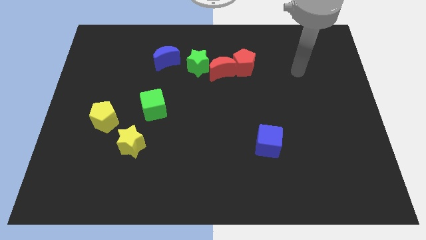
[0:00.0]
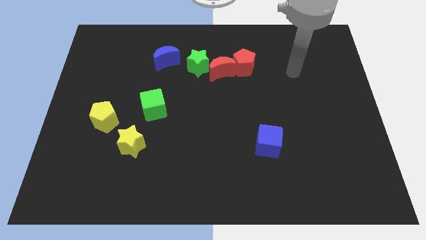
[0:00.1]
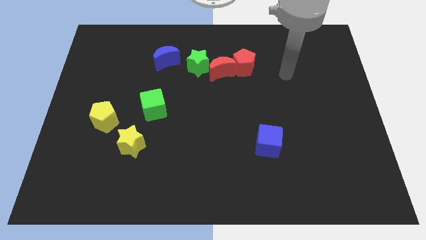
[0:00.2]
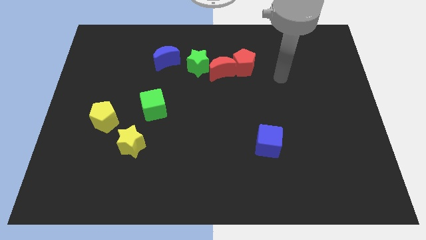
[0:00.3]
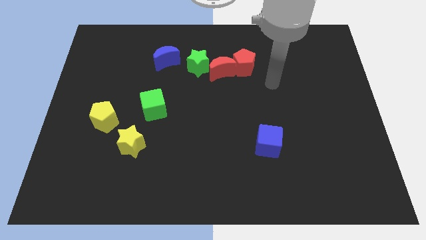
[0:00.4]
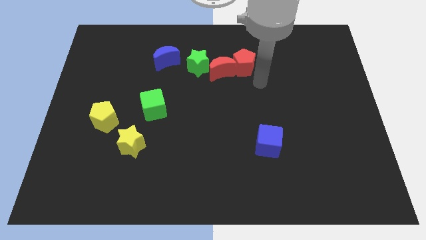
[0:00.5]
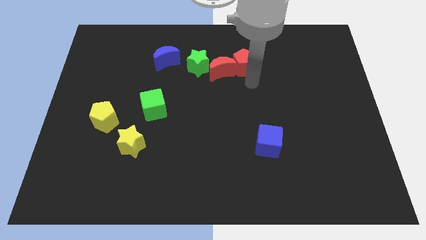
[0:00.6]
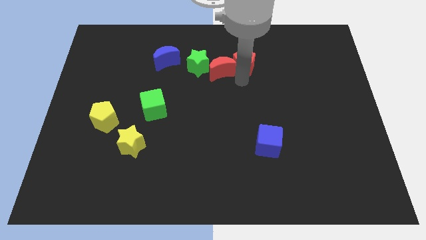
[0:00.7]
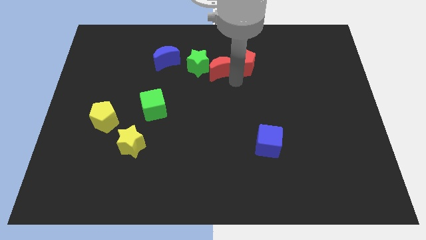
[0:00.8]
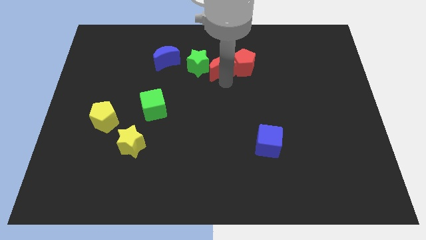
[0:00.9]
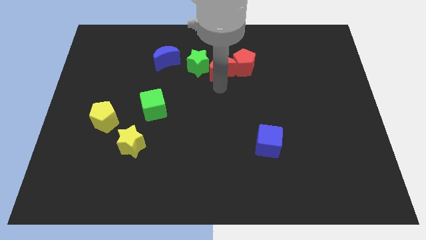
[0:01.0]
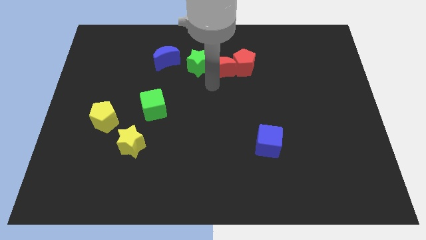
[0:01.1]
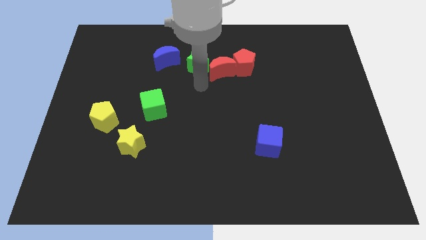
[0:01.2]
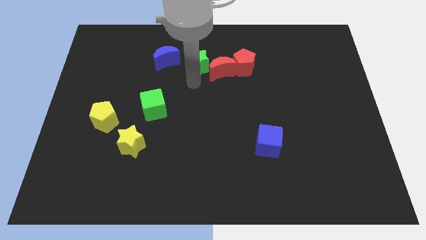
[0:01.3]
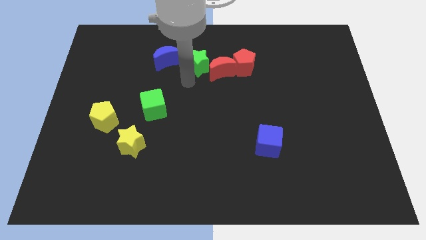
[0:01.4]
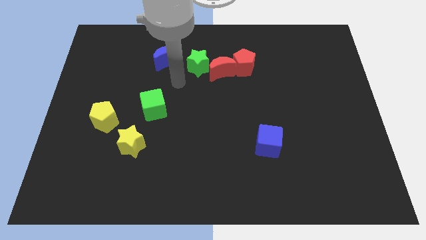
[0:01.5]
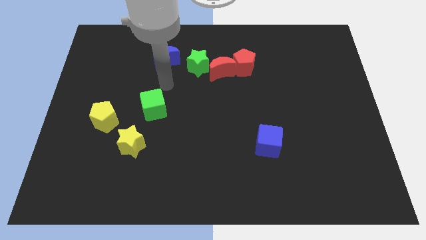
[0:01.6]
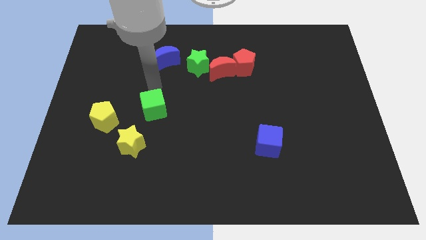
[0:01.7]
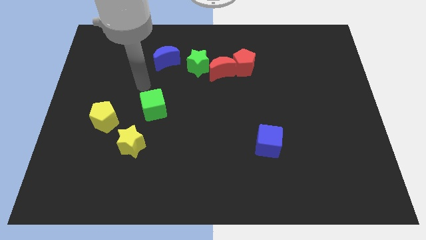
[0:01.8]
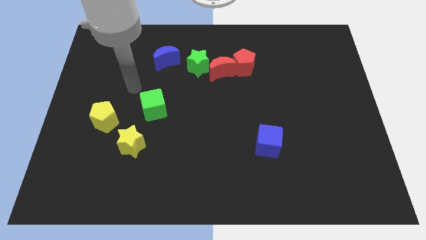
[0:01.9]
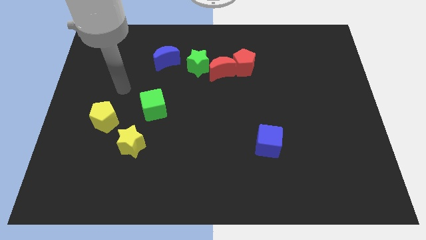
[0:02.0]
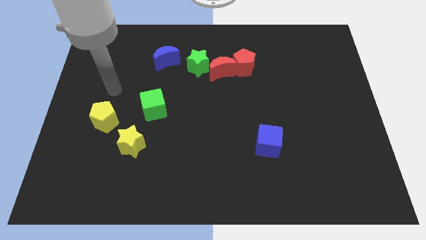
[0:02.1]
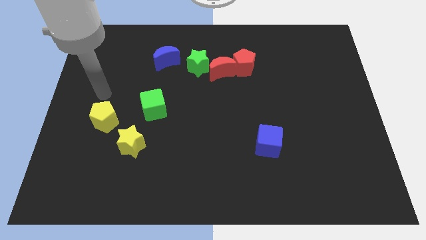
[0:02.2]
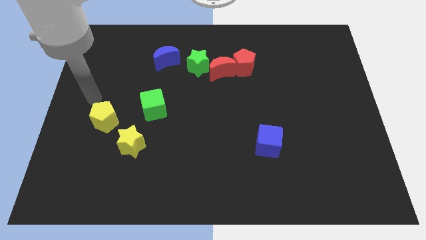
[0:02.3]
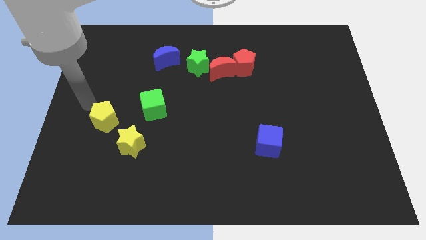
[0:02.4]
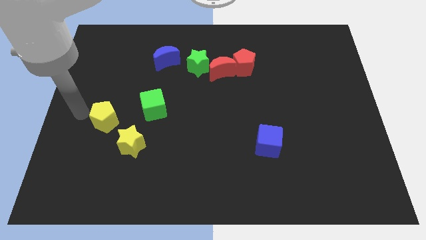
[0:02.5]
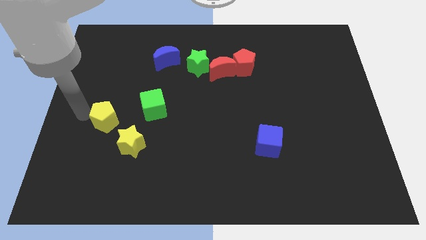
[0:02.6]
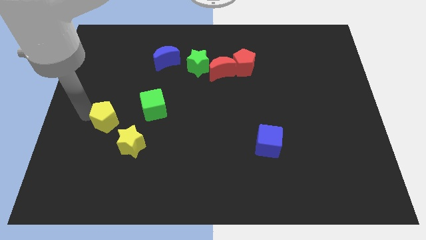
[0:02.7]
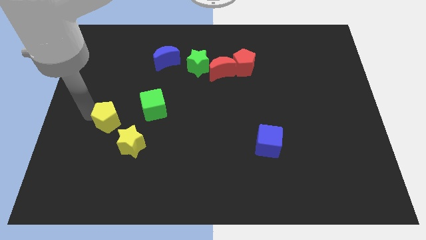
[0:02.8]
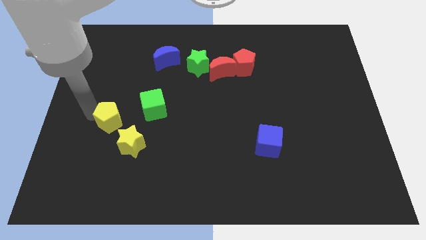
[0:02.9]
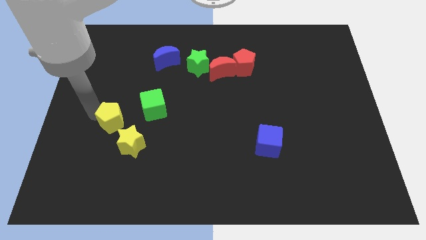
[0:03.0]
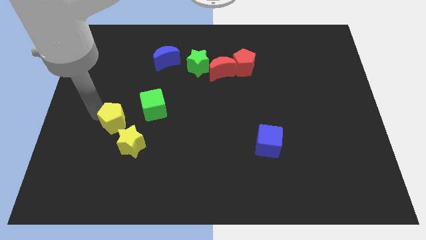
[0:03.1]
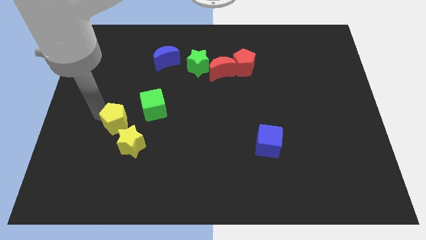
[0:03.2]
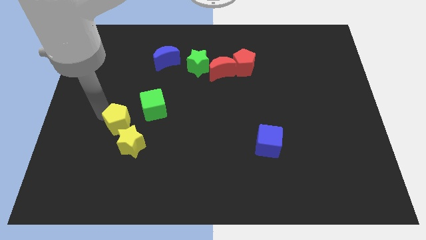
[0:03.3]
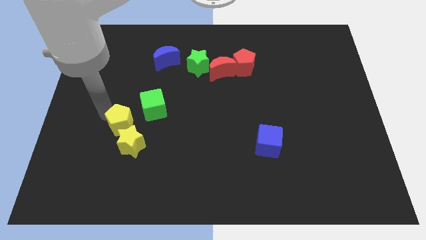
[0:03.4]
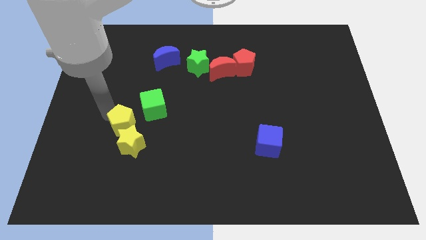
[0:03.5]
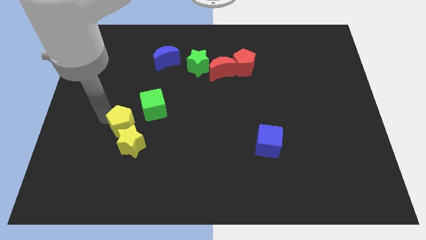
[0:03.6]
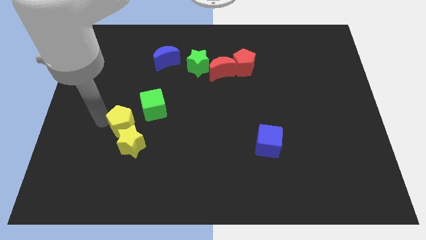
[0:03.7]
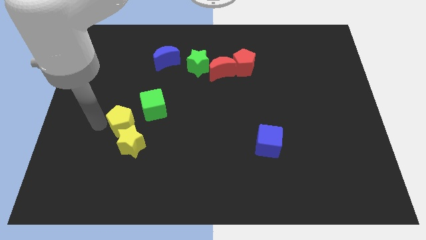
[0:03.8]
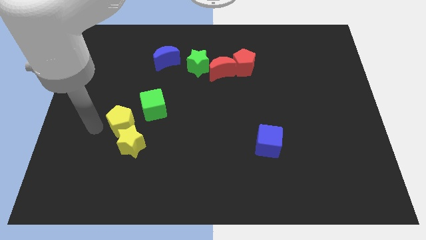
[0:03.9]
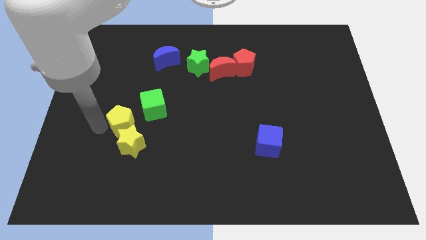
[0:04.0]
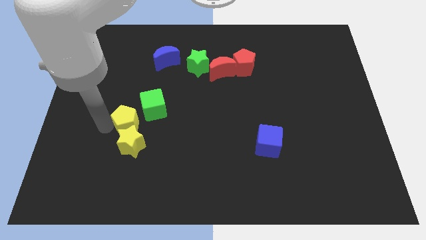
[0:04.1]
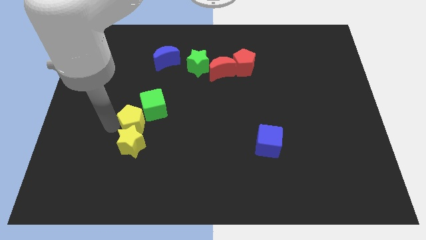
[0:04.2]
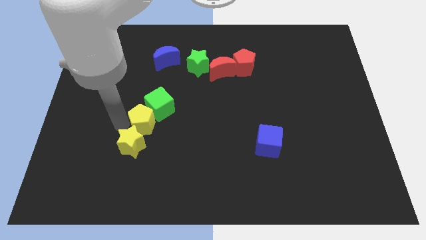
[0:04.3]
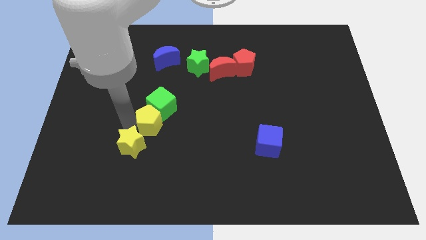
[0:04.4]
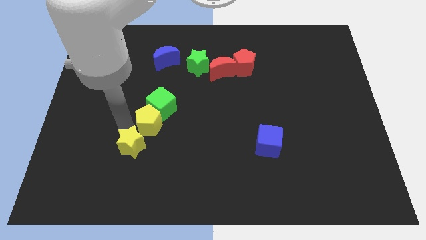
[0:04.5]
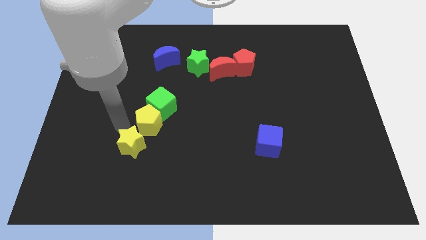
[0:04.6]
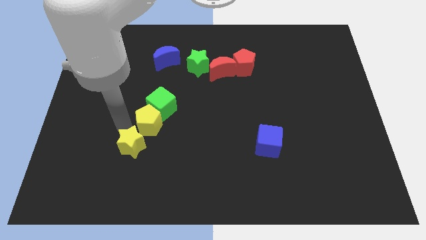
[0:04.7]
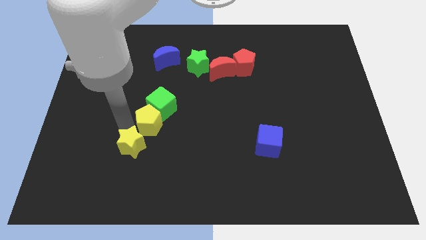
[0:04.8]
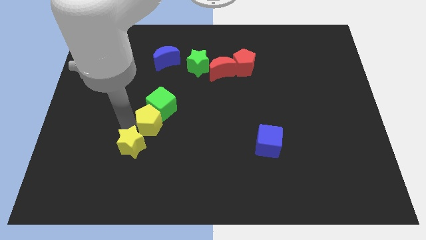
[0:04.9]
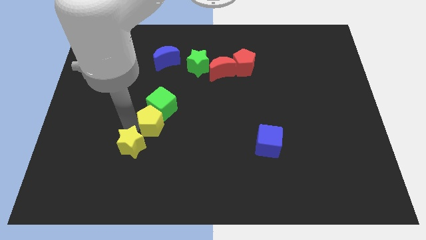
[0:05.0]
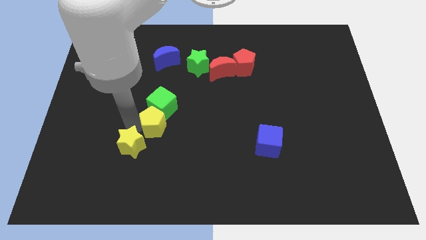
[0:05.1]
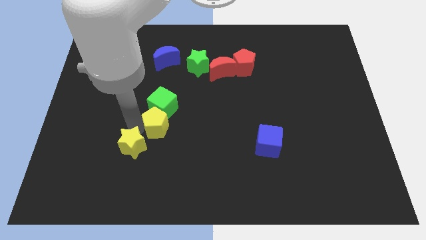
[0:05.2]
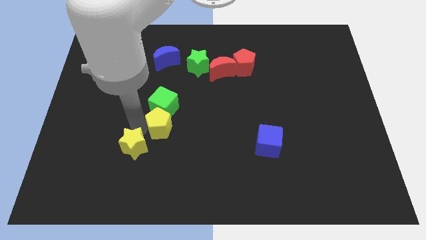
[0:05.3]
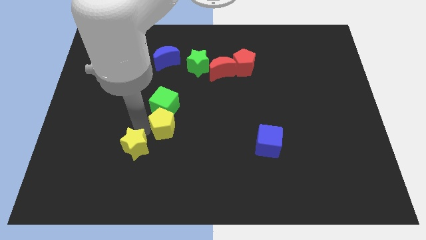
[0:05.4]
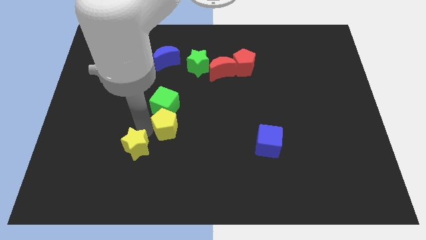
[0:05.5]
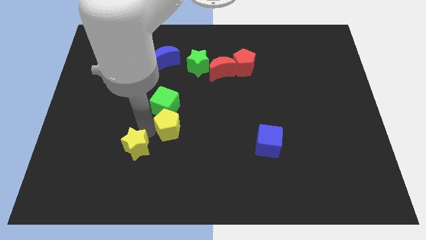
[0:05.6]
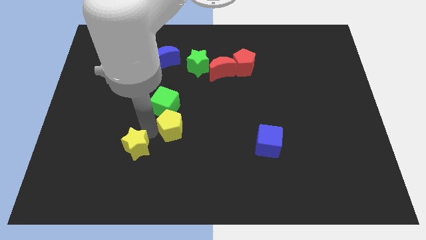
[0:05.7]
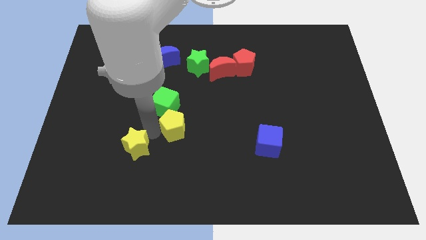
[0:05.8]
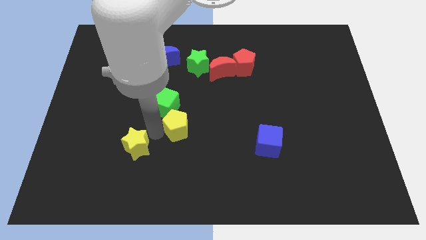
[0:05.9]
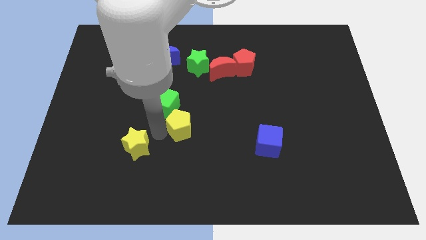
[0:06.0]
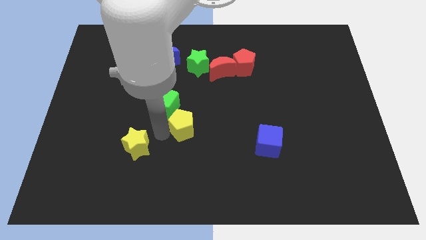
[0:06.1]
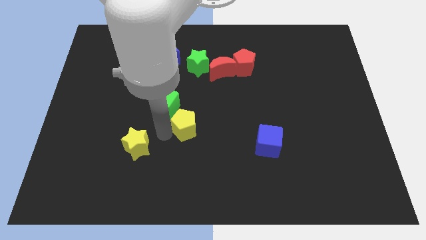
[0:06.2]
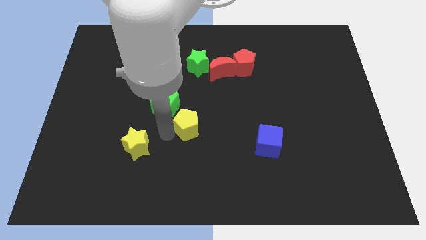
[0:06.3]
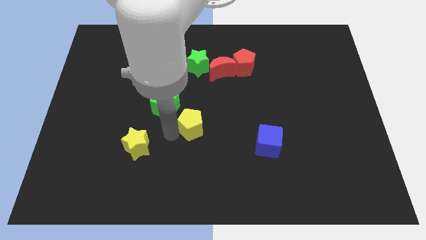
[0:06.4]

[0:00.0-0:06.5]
push the yellow pentagon to the right

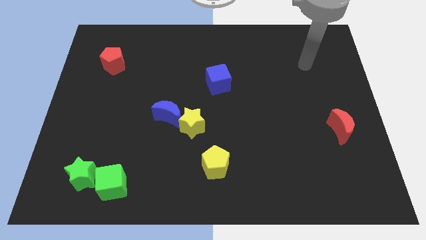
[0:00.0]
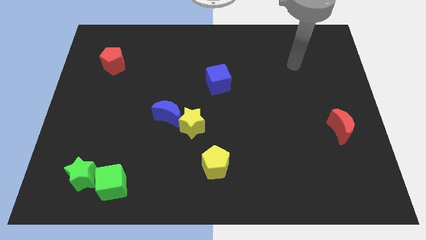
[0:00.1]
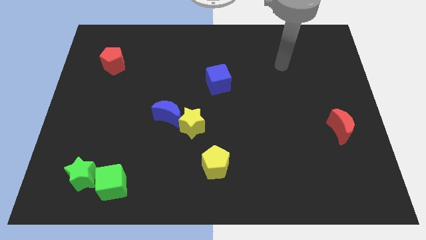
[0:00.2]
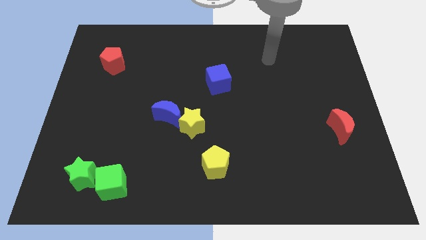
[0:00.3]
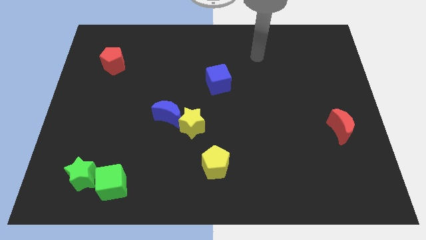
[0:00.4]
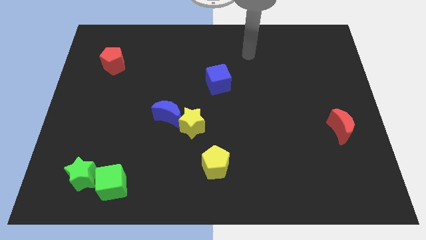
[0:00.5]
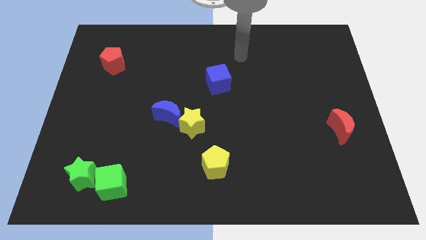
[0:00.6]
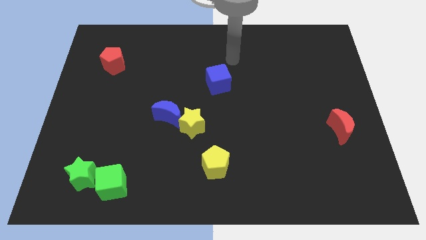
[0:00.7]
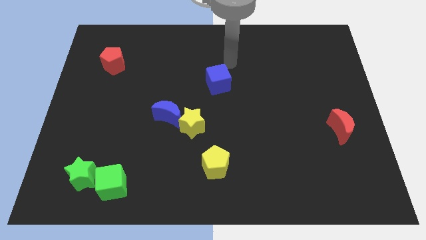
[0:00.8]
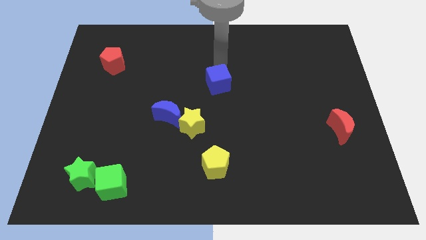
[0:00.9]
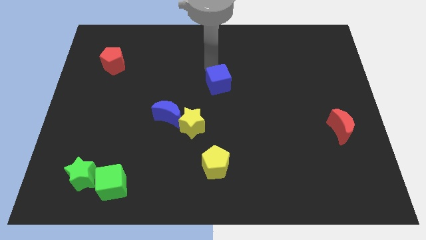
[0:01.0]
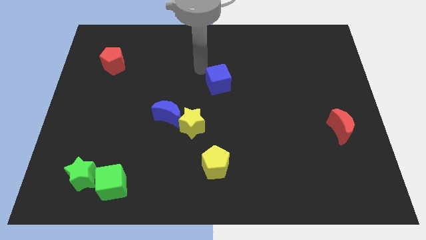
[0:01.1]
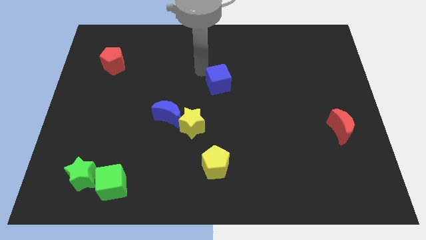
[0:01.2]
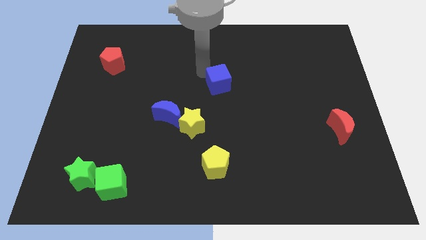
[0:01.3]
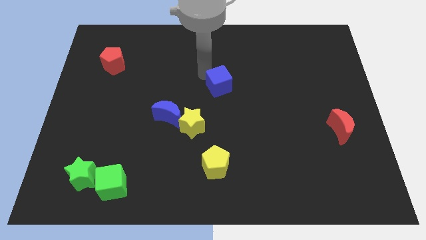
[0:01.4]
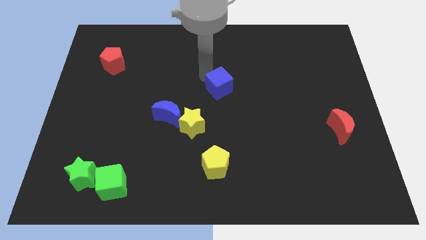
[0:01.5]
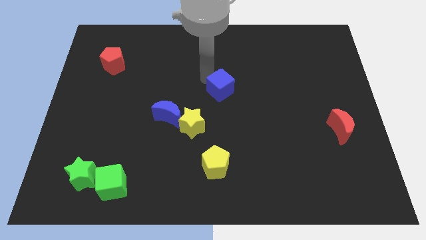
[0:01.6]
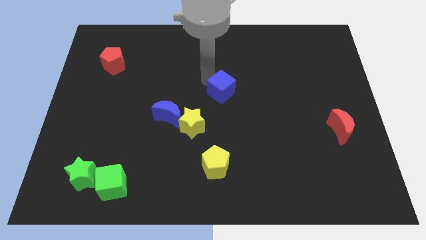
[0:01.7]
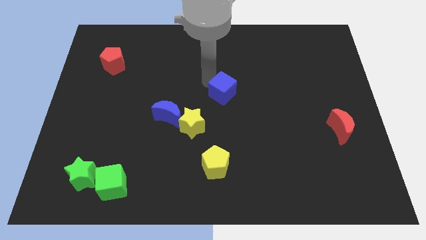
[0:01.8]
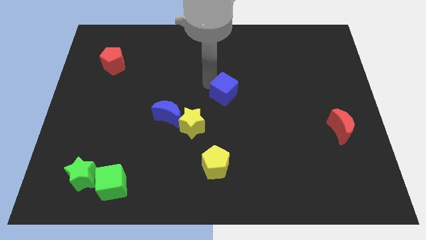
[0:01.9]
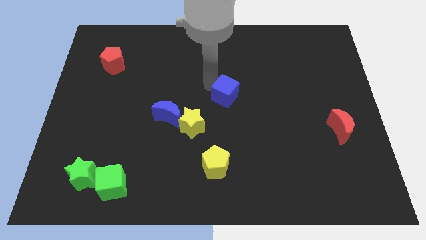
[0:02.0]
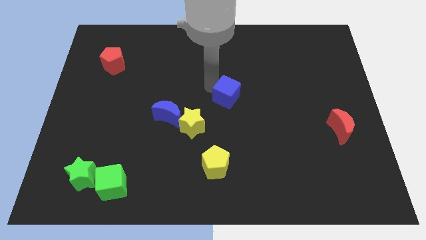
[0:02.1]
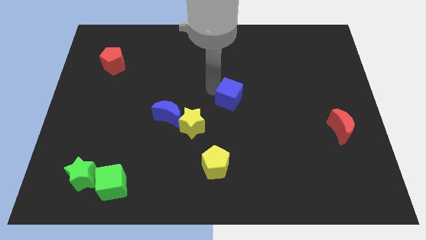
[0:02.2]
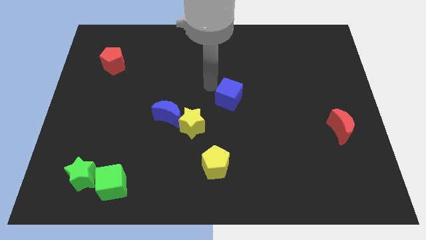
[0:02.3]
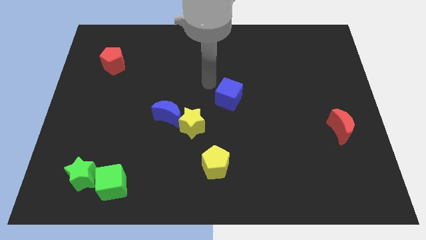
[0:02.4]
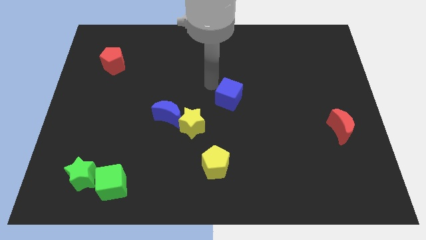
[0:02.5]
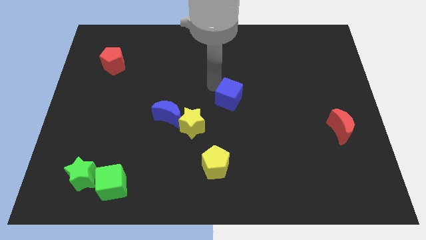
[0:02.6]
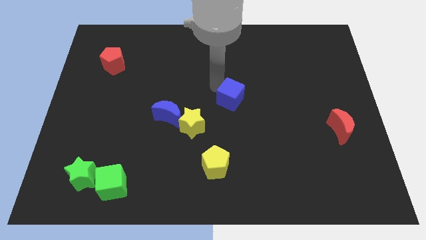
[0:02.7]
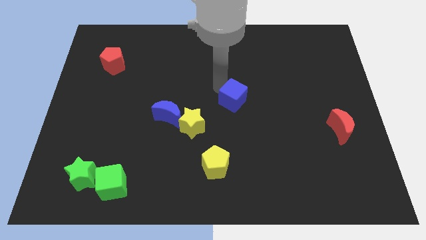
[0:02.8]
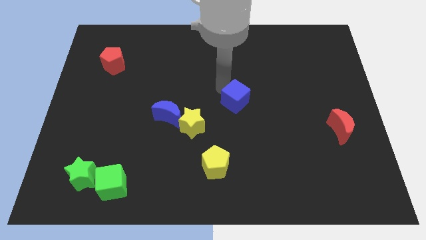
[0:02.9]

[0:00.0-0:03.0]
slightly push the blue cube downwards and to the right
